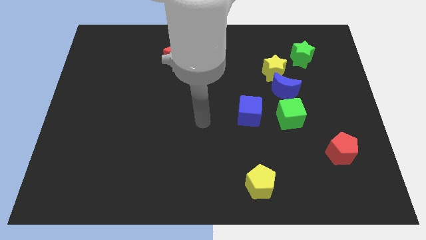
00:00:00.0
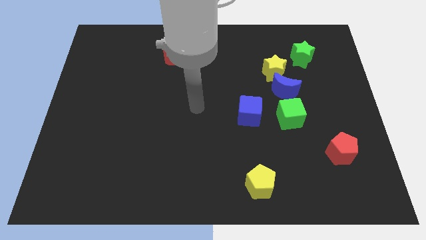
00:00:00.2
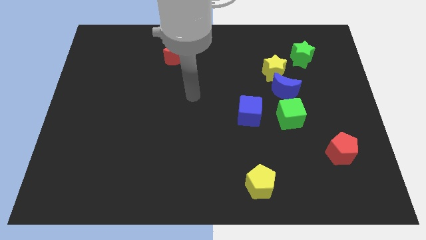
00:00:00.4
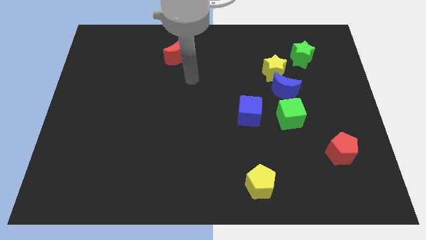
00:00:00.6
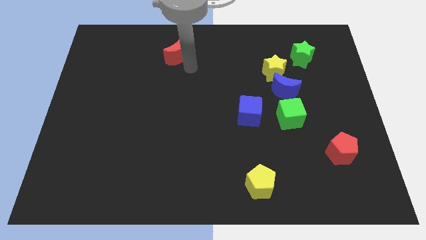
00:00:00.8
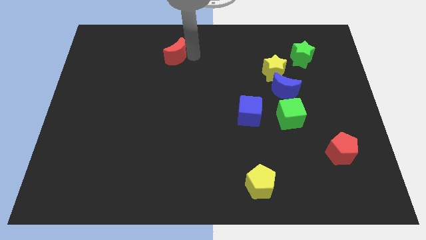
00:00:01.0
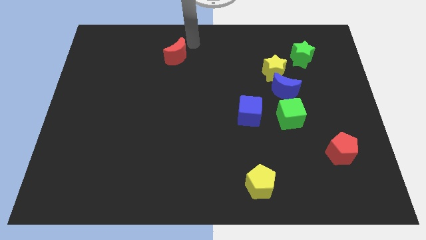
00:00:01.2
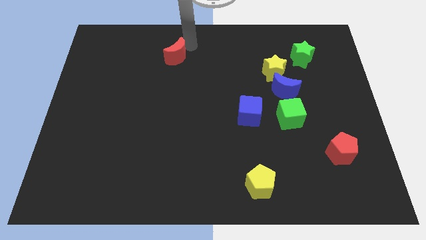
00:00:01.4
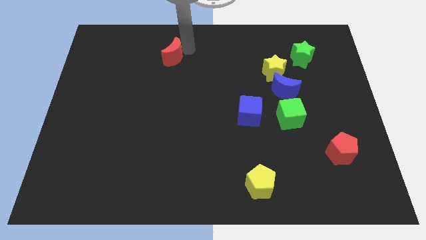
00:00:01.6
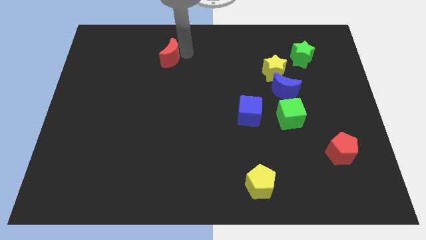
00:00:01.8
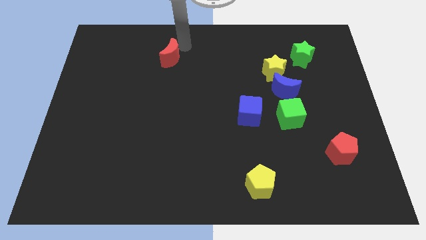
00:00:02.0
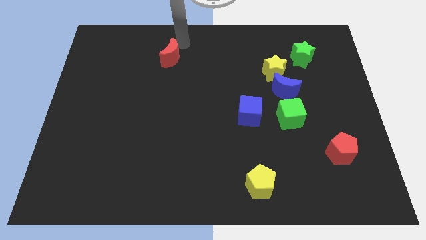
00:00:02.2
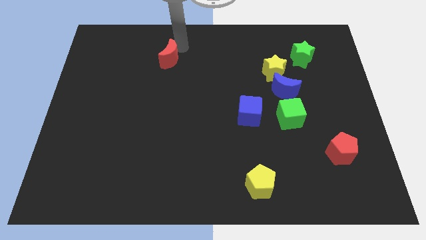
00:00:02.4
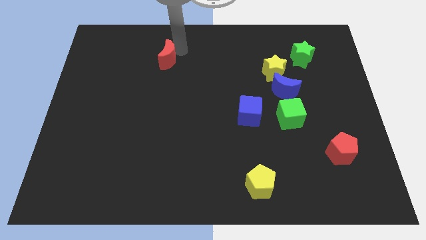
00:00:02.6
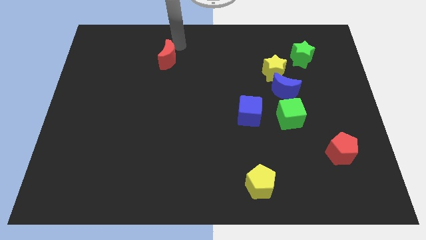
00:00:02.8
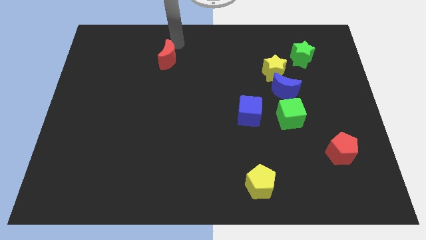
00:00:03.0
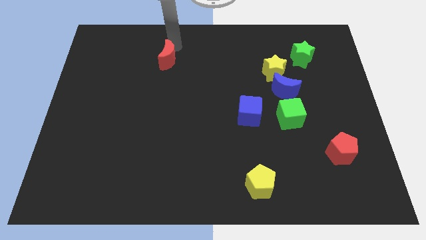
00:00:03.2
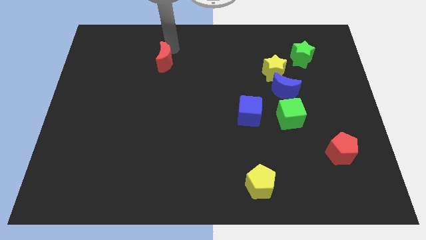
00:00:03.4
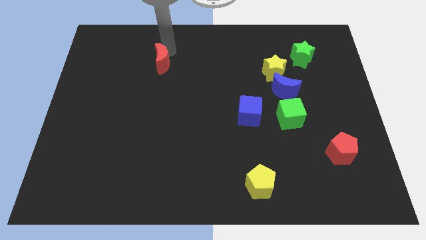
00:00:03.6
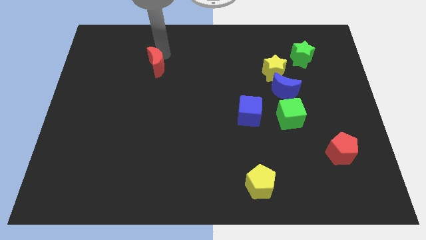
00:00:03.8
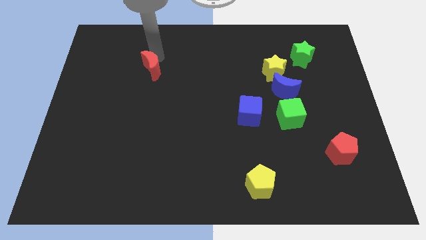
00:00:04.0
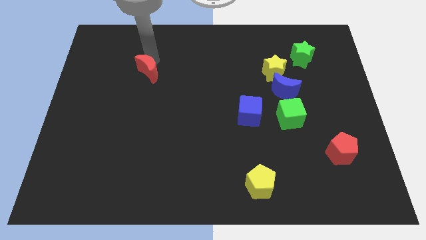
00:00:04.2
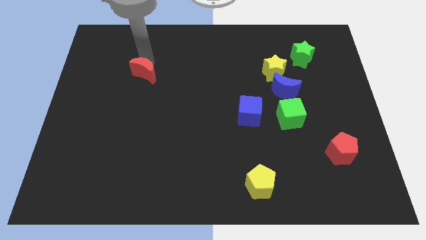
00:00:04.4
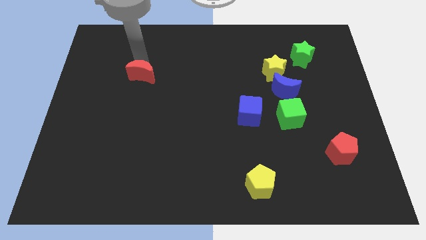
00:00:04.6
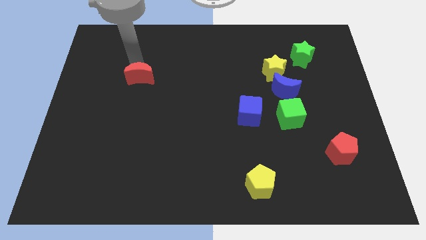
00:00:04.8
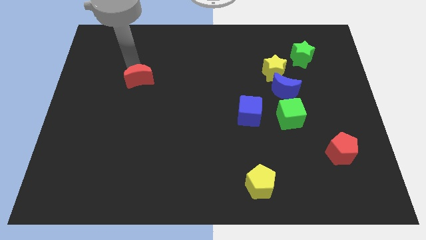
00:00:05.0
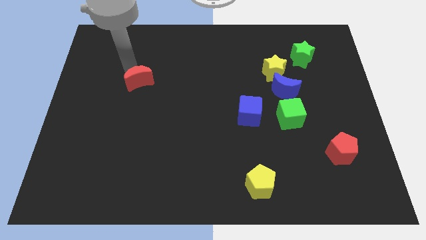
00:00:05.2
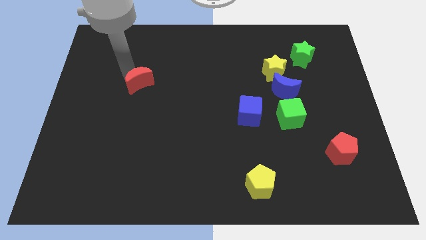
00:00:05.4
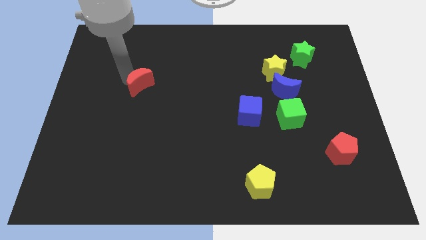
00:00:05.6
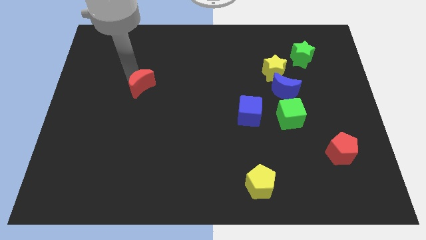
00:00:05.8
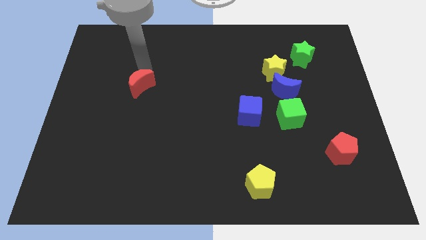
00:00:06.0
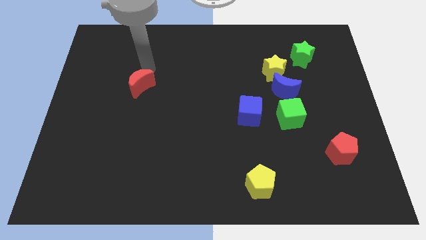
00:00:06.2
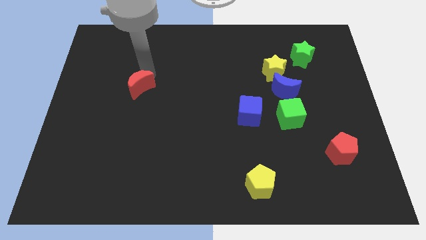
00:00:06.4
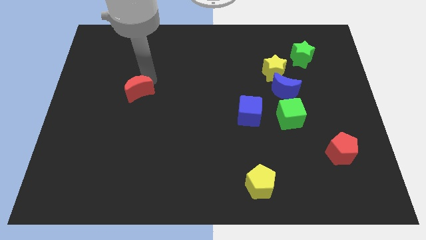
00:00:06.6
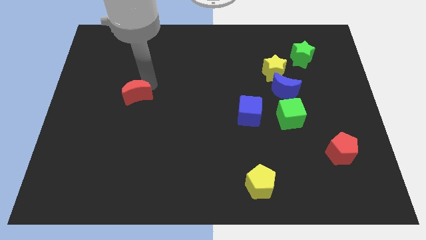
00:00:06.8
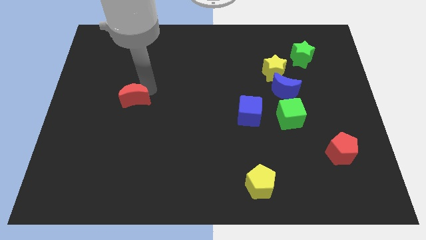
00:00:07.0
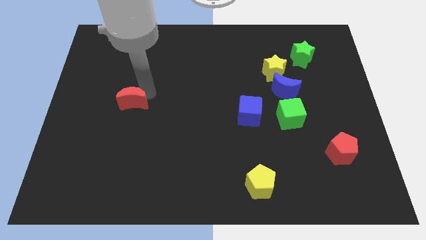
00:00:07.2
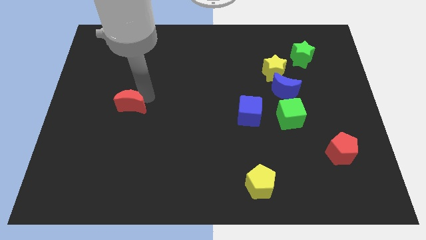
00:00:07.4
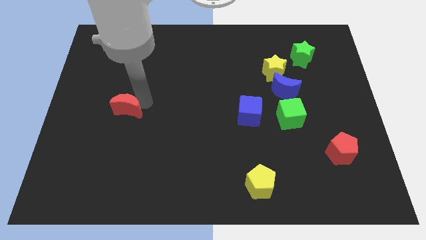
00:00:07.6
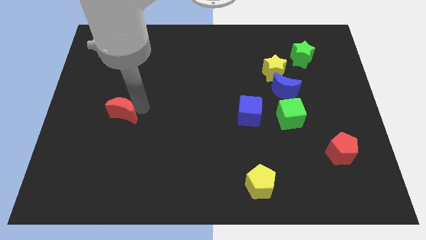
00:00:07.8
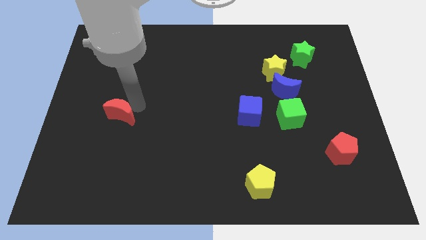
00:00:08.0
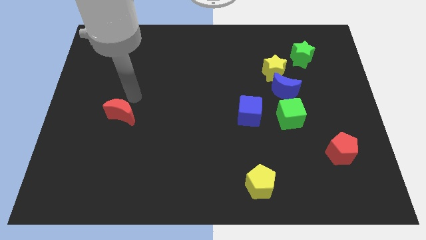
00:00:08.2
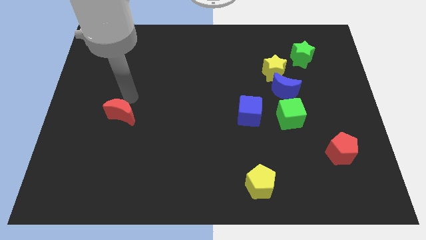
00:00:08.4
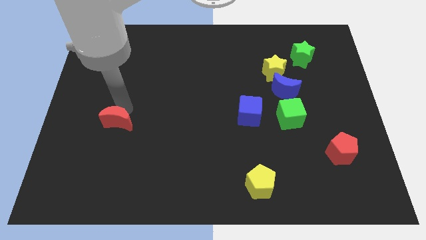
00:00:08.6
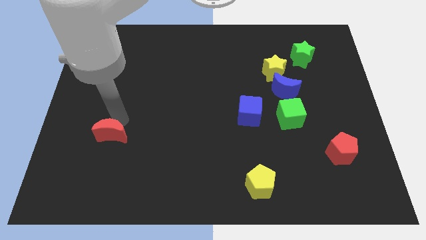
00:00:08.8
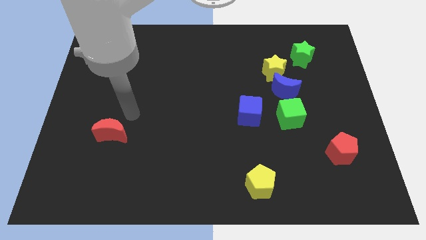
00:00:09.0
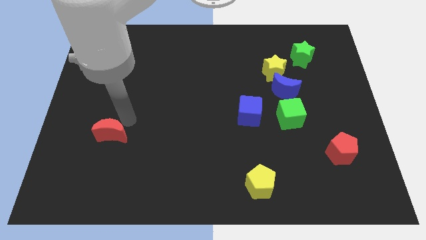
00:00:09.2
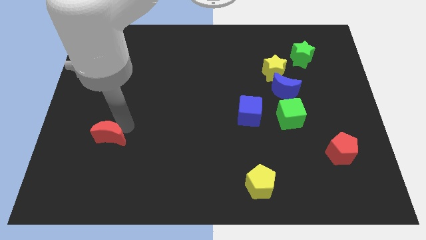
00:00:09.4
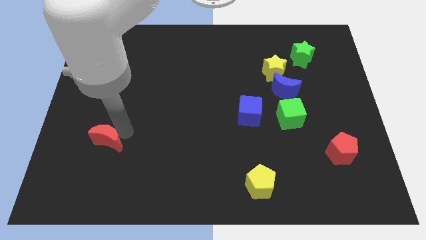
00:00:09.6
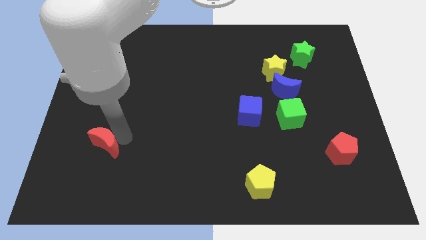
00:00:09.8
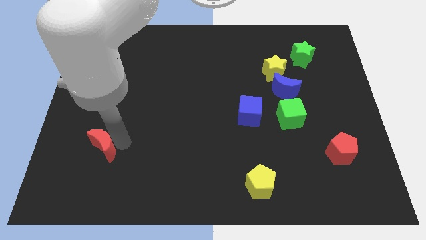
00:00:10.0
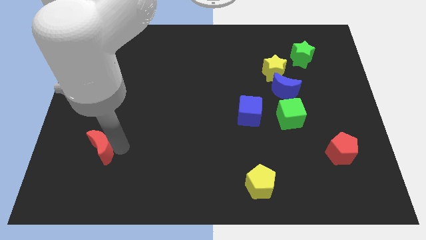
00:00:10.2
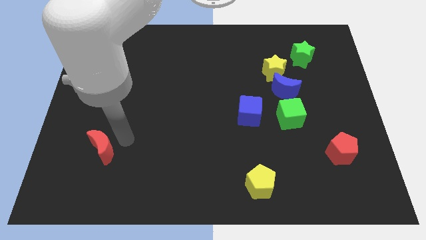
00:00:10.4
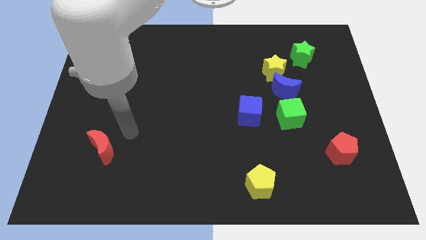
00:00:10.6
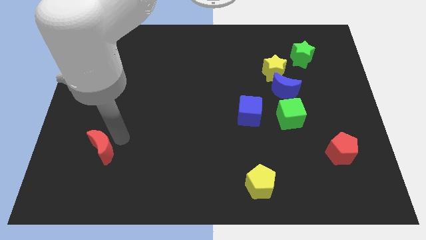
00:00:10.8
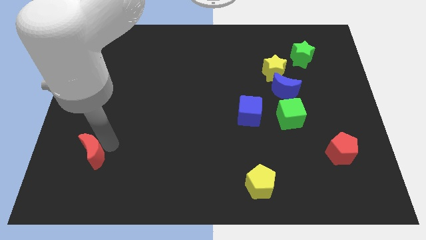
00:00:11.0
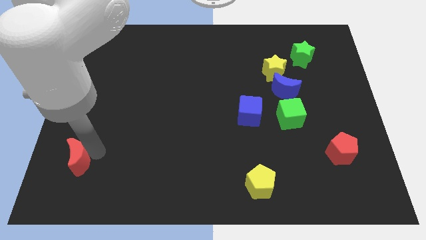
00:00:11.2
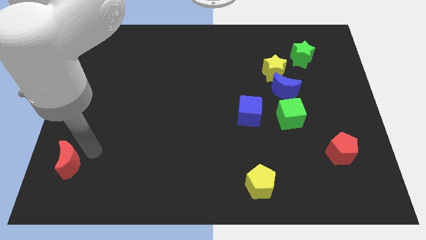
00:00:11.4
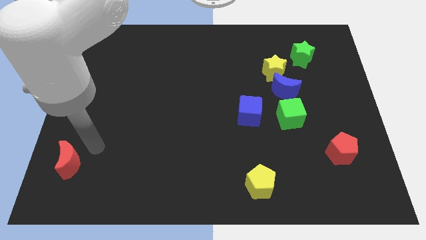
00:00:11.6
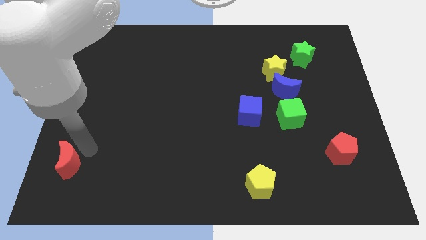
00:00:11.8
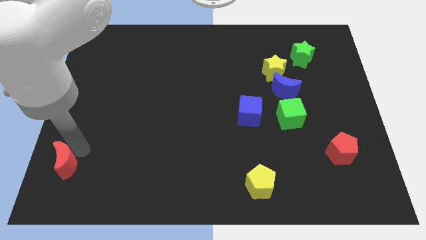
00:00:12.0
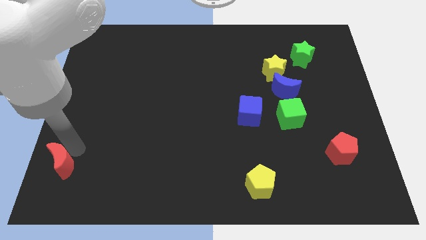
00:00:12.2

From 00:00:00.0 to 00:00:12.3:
move the red moon to the lower left corner
